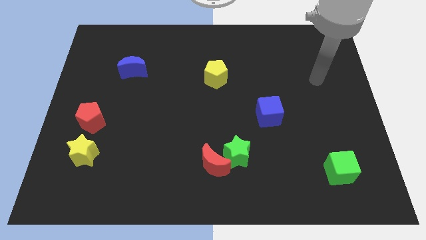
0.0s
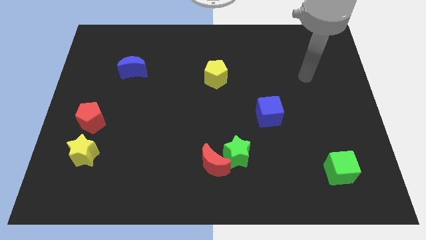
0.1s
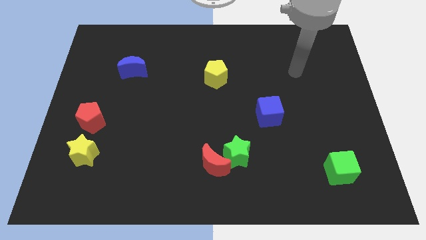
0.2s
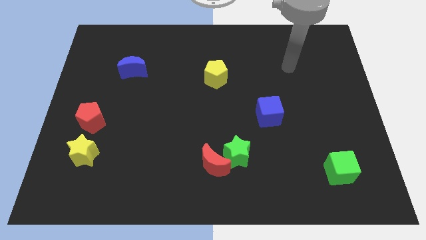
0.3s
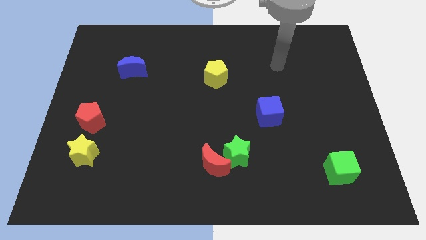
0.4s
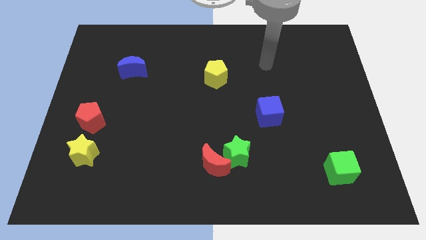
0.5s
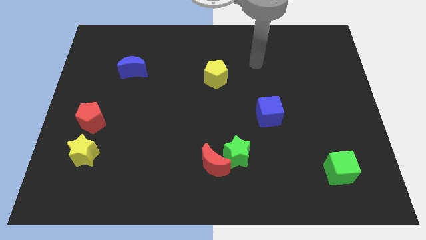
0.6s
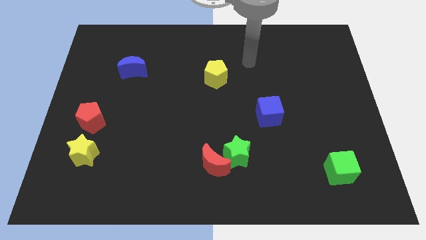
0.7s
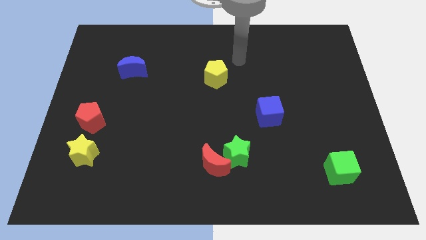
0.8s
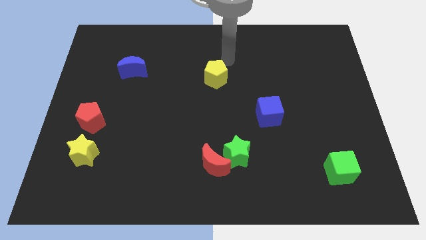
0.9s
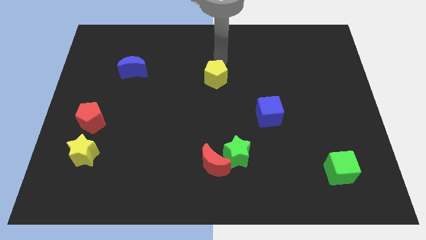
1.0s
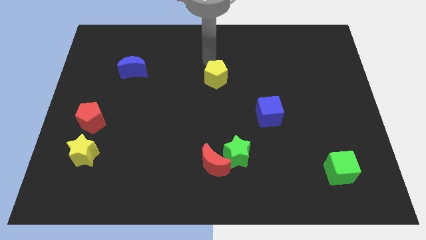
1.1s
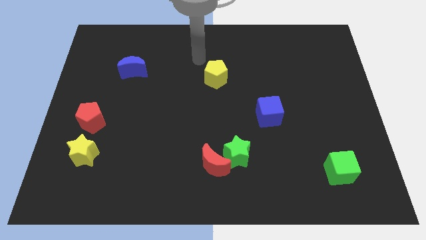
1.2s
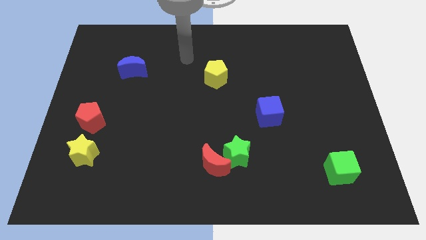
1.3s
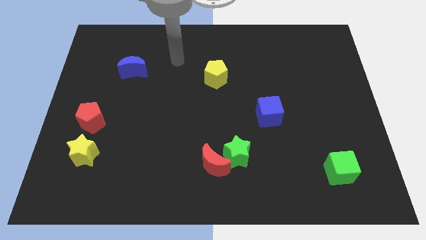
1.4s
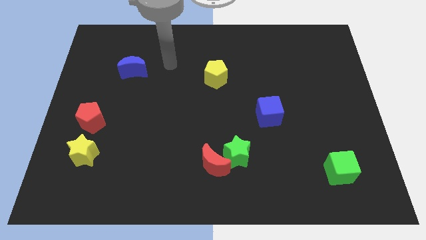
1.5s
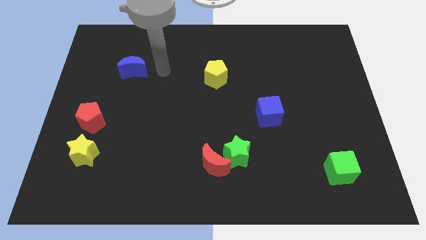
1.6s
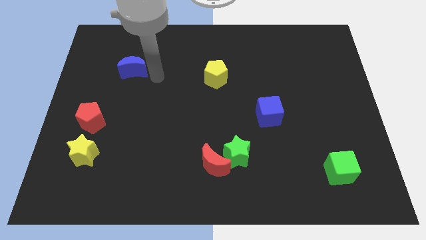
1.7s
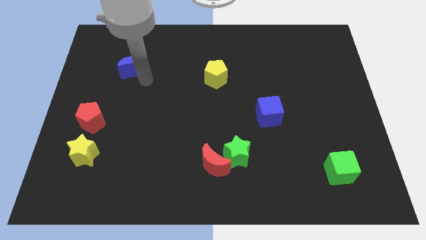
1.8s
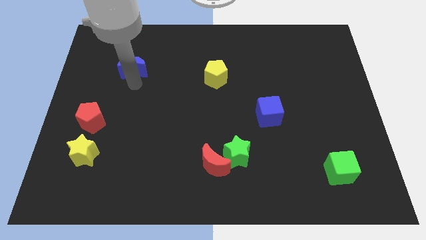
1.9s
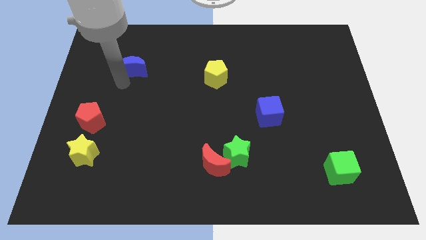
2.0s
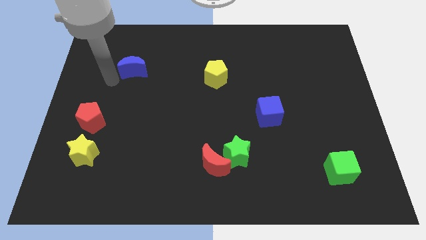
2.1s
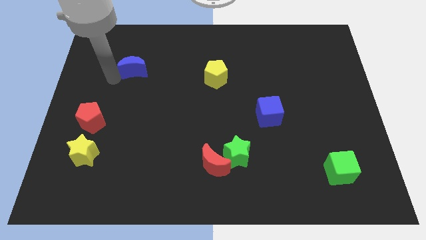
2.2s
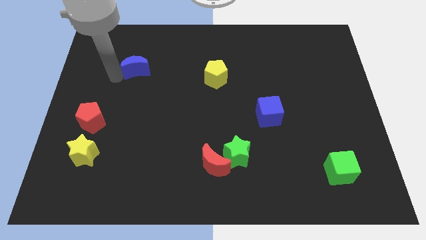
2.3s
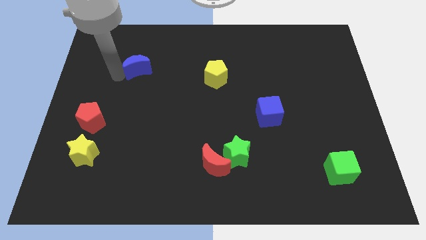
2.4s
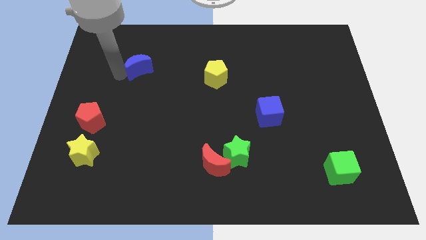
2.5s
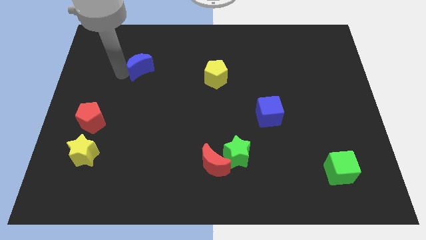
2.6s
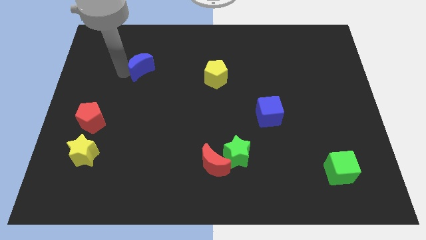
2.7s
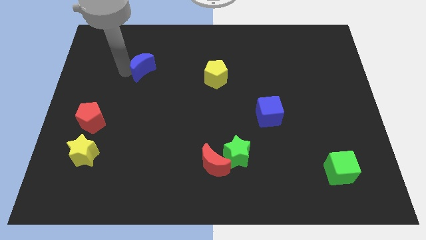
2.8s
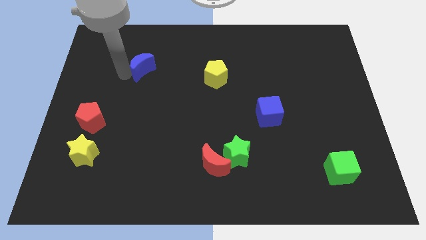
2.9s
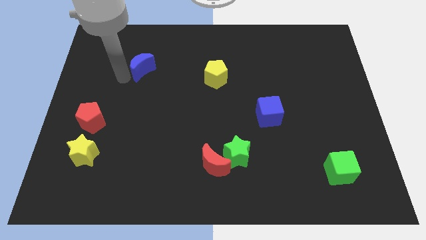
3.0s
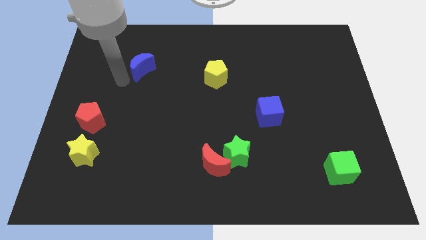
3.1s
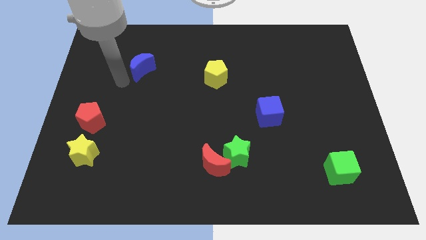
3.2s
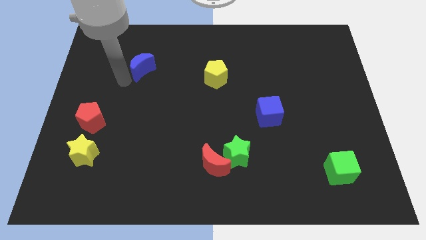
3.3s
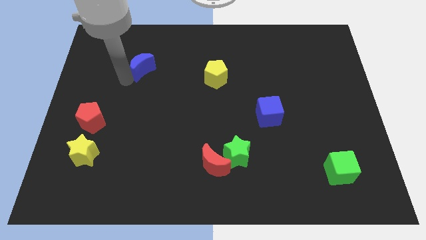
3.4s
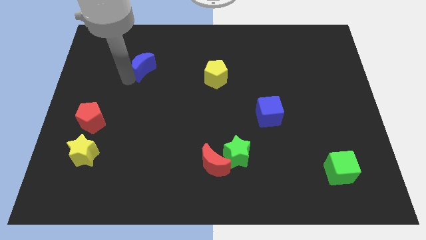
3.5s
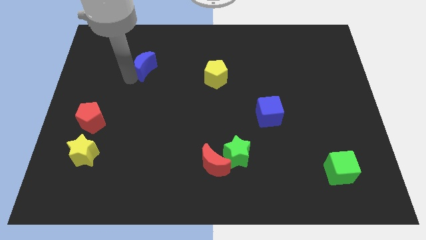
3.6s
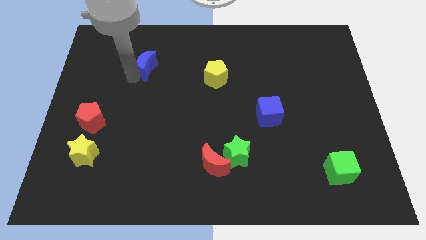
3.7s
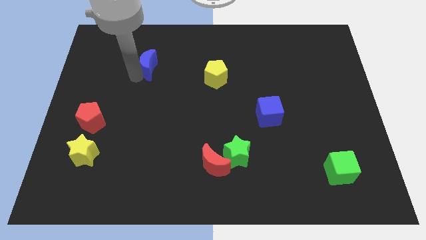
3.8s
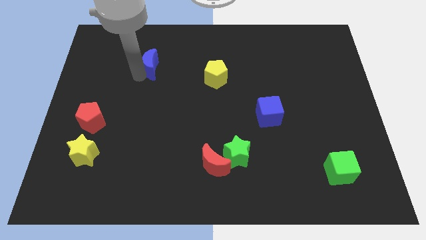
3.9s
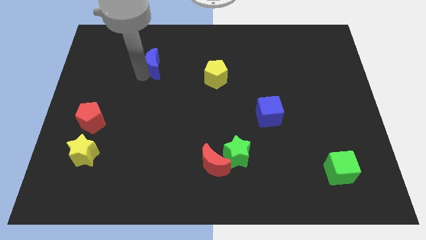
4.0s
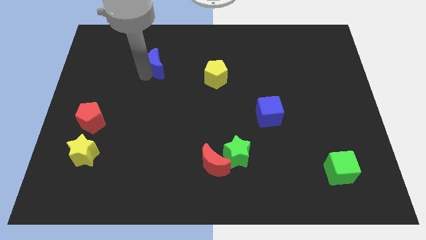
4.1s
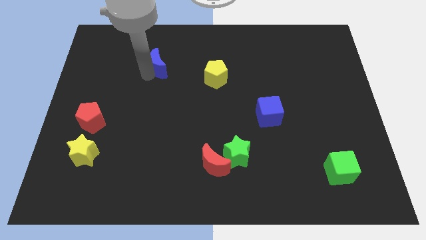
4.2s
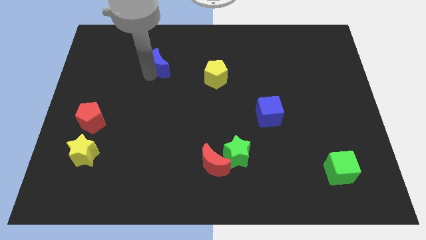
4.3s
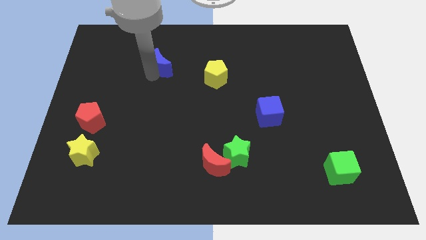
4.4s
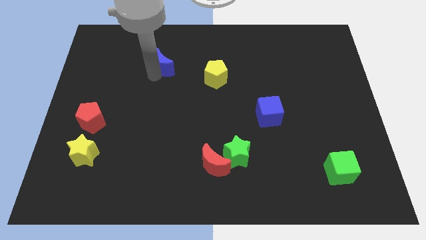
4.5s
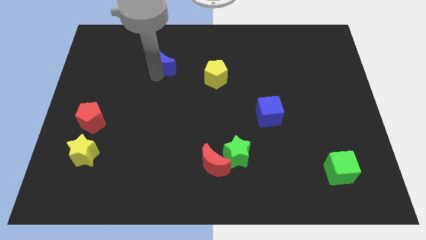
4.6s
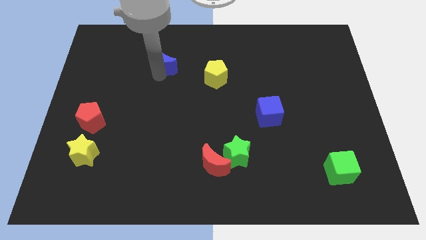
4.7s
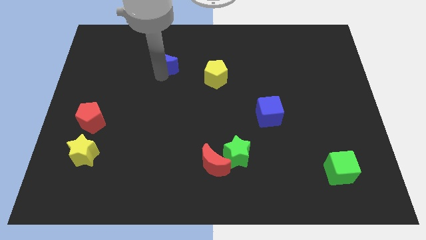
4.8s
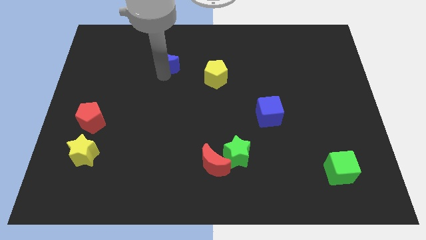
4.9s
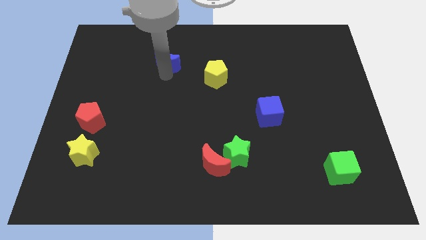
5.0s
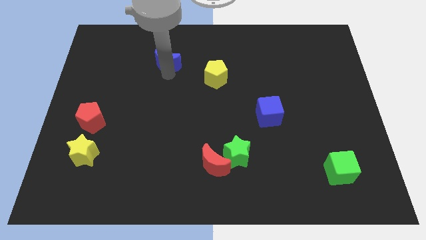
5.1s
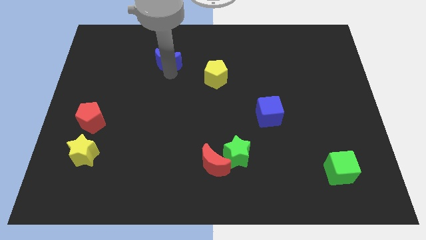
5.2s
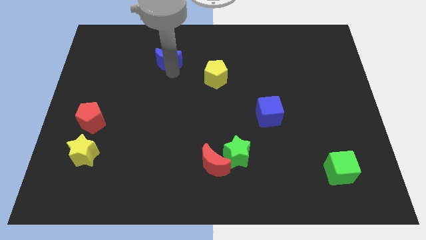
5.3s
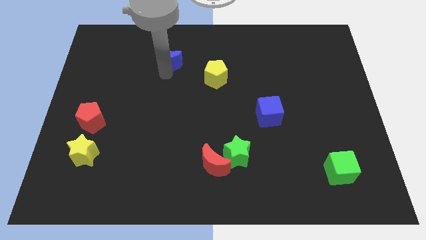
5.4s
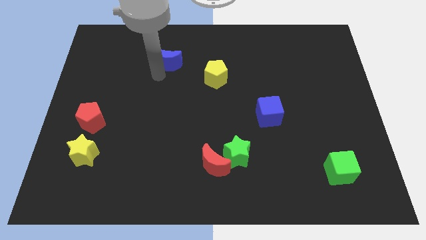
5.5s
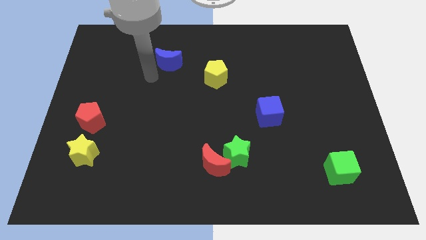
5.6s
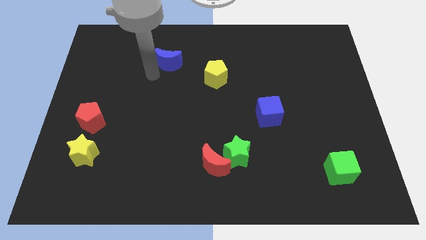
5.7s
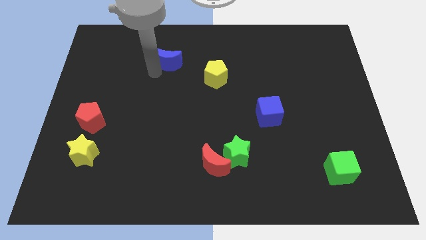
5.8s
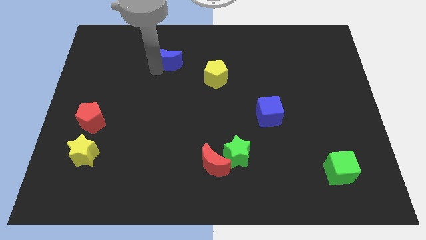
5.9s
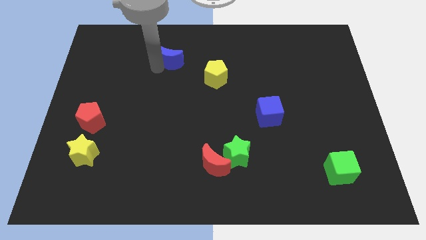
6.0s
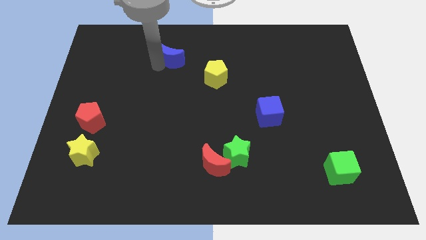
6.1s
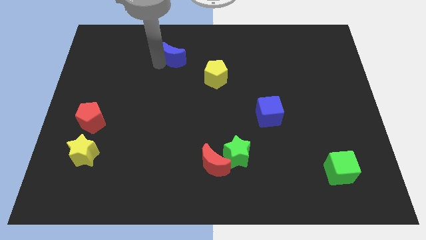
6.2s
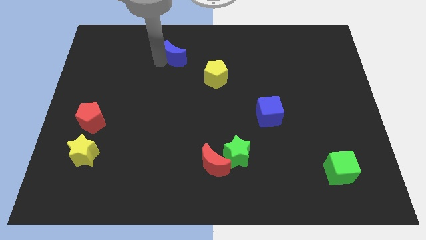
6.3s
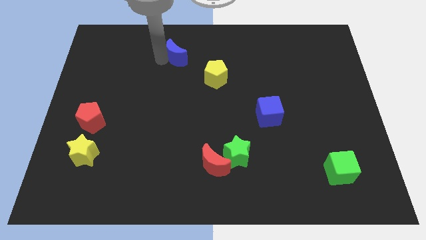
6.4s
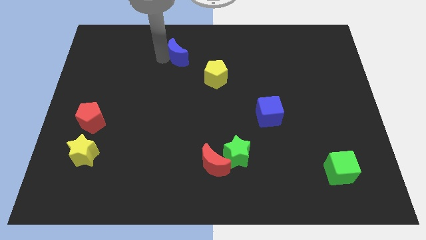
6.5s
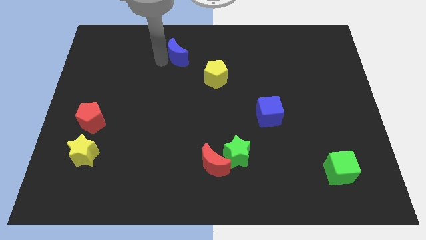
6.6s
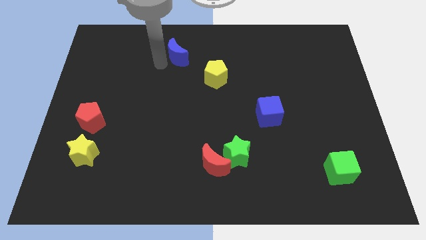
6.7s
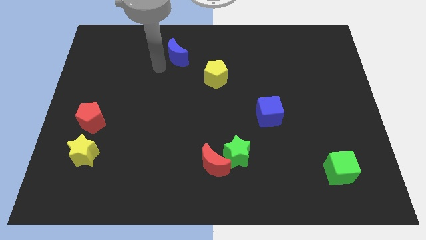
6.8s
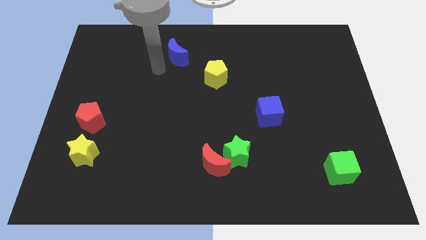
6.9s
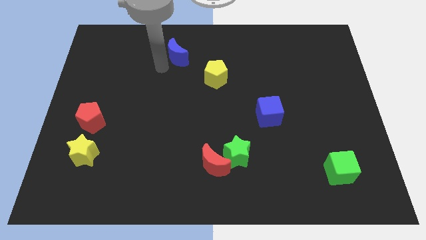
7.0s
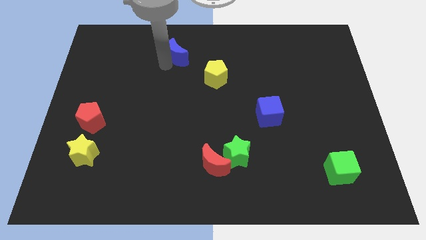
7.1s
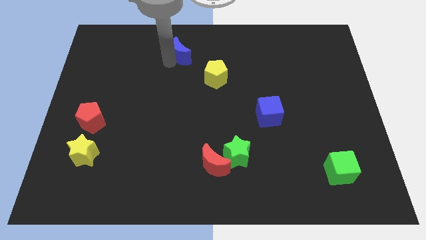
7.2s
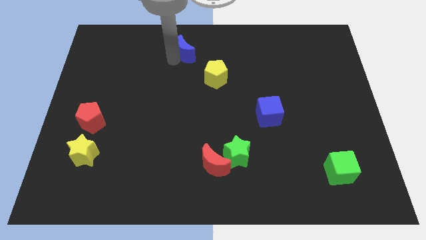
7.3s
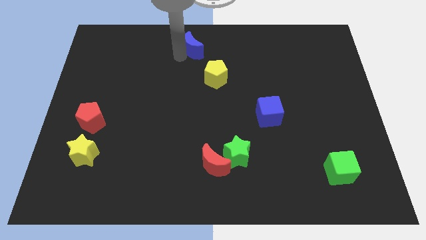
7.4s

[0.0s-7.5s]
move the blue moon to the top

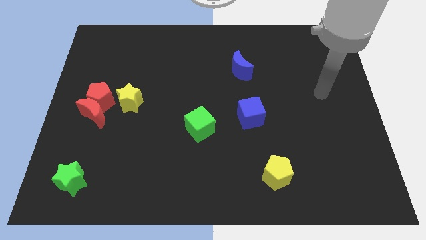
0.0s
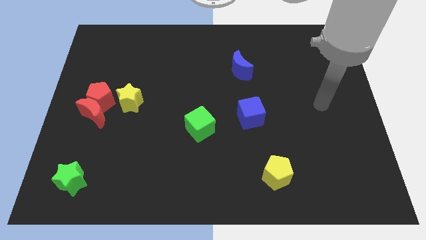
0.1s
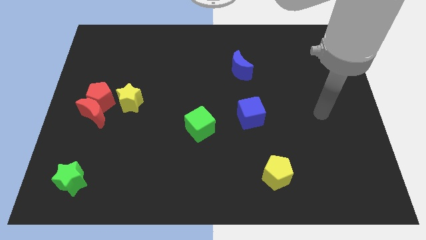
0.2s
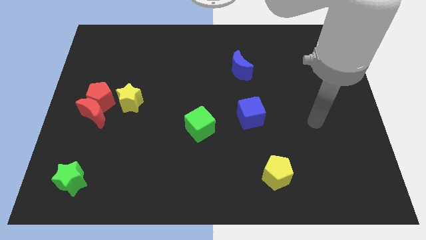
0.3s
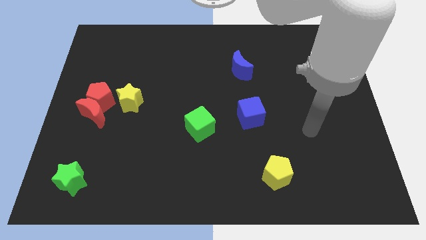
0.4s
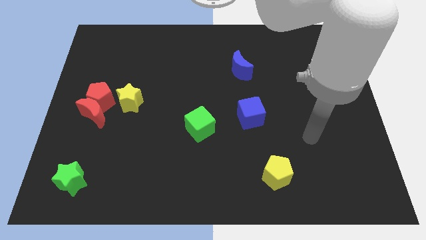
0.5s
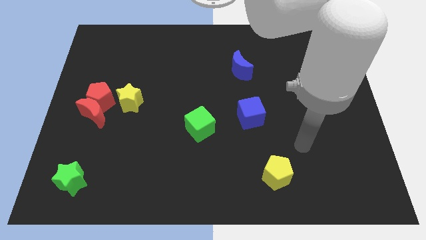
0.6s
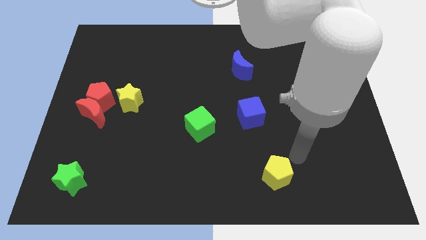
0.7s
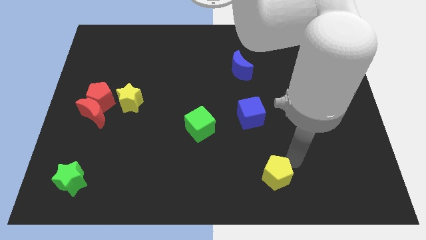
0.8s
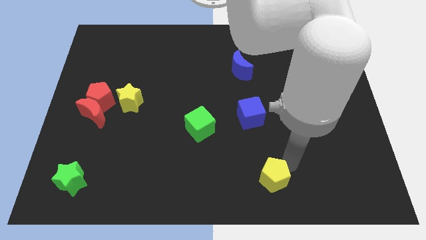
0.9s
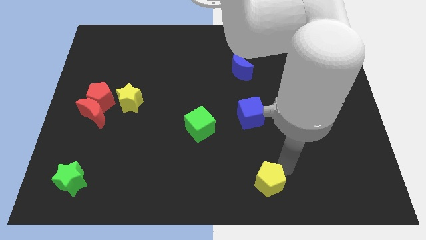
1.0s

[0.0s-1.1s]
slide the yellow pentagon to the bottom side
